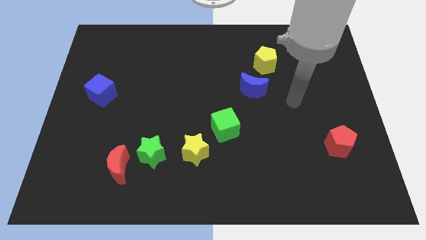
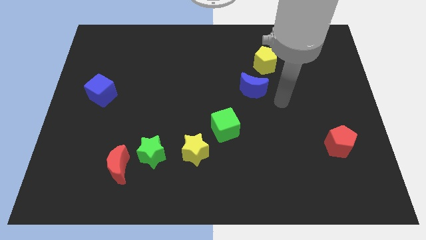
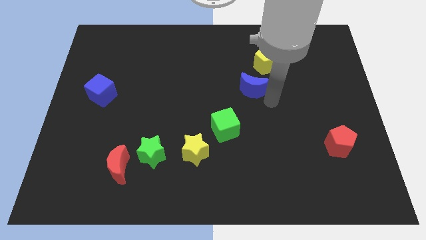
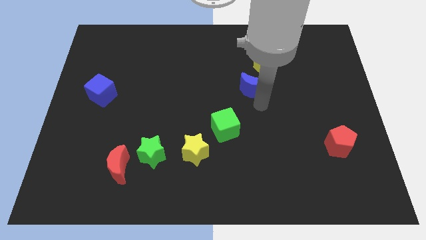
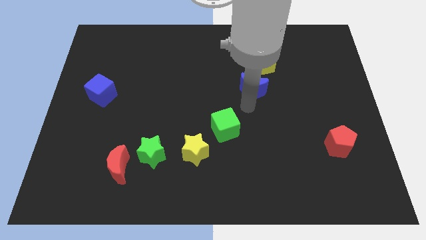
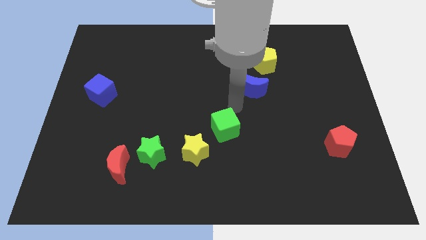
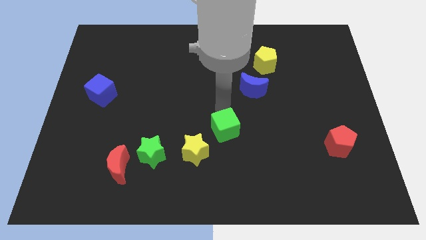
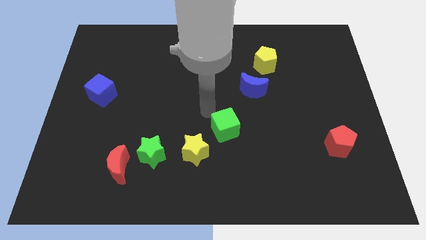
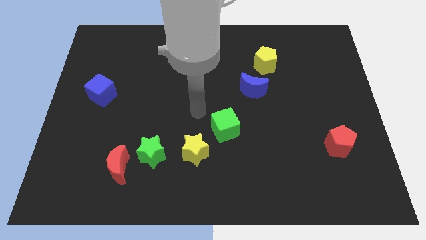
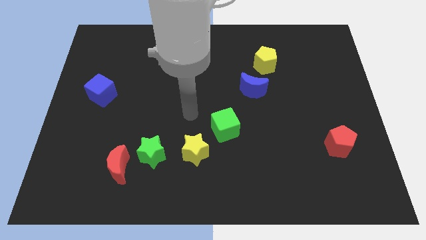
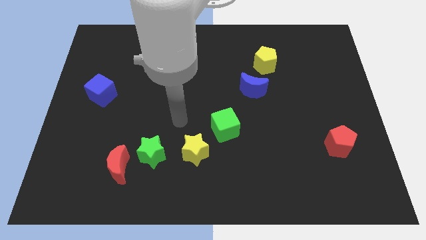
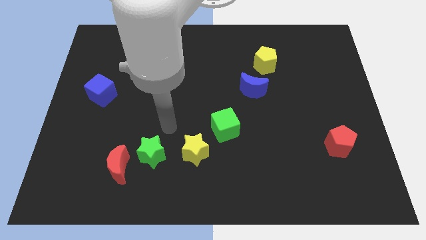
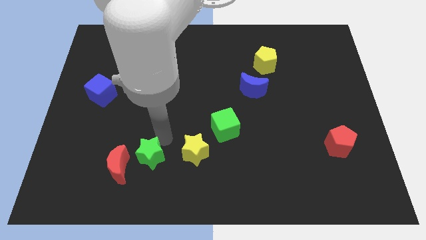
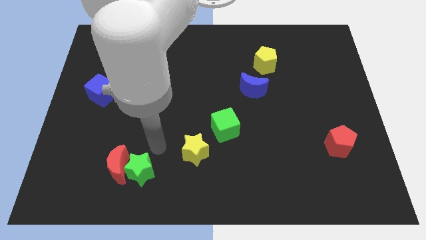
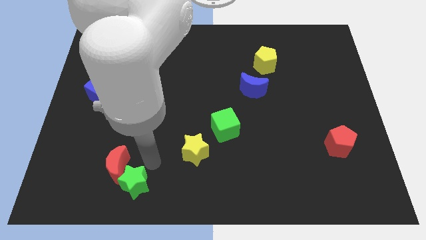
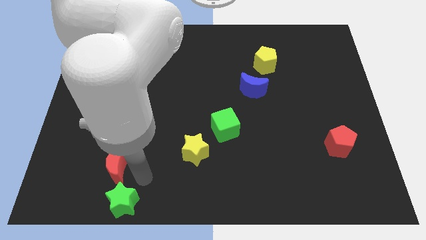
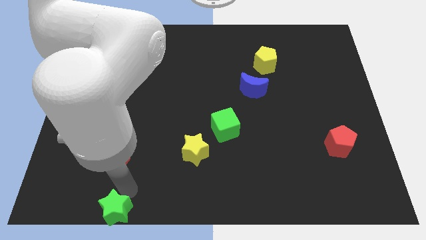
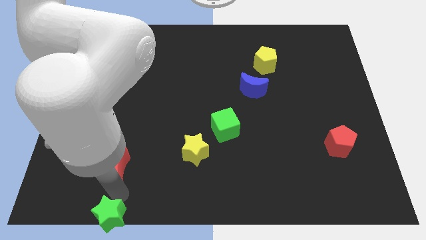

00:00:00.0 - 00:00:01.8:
move the red moon away from the green star

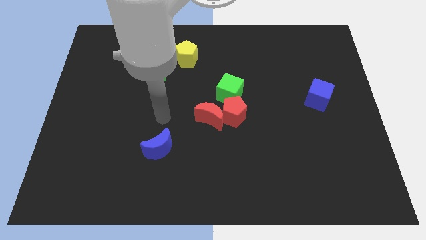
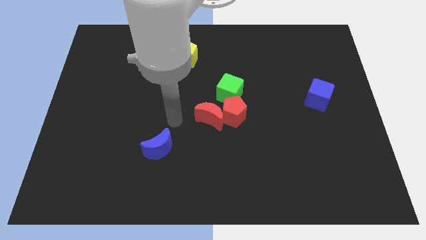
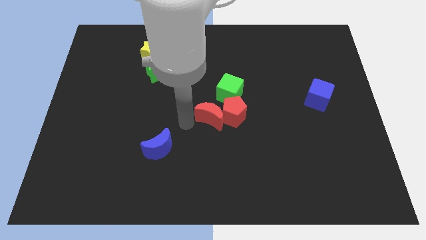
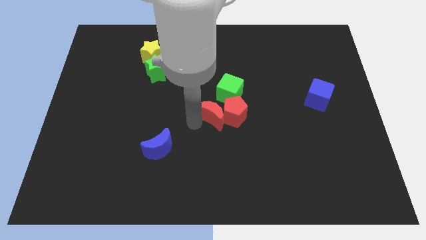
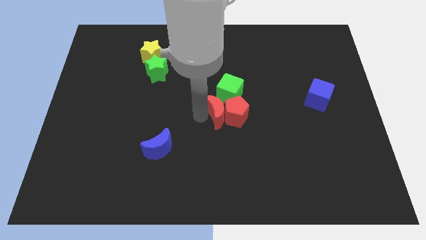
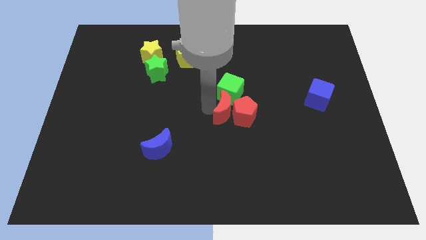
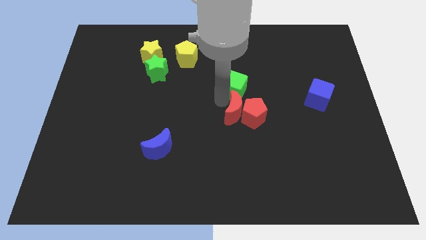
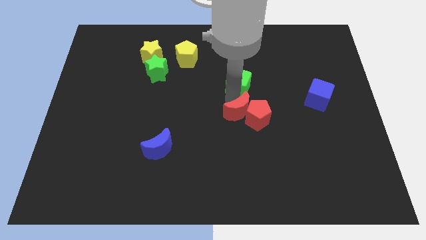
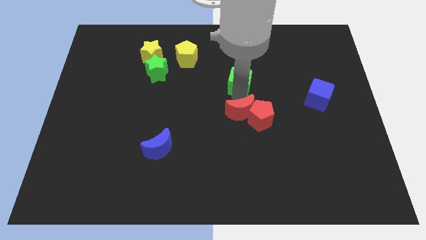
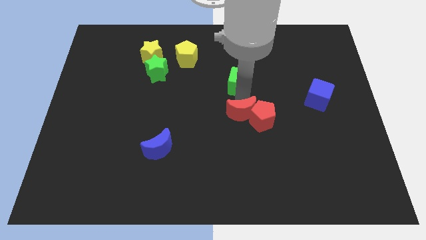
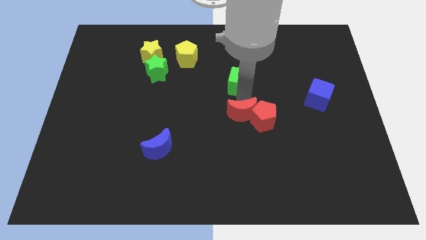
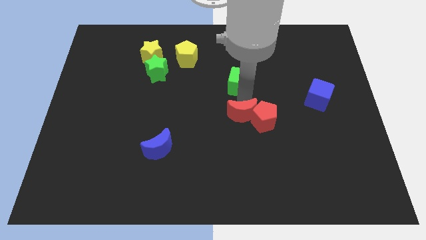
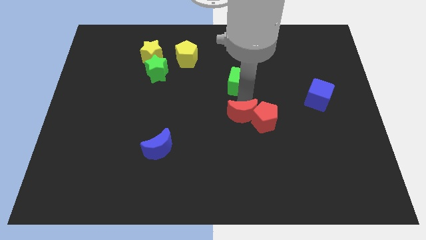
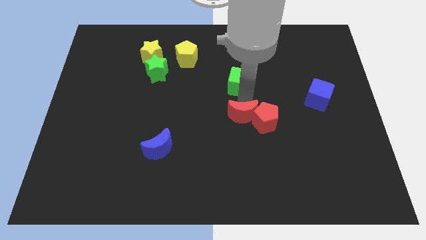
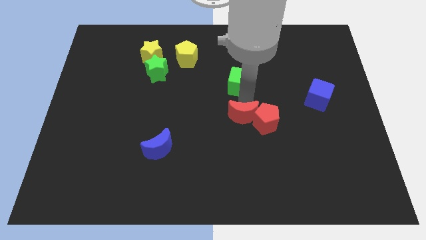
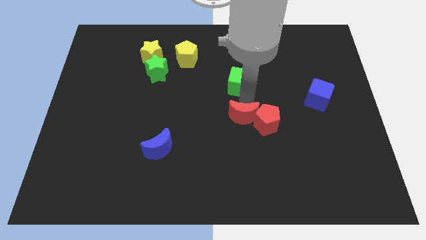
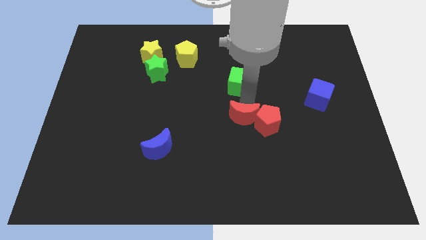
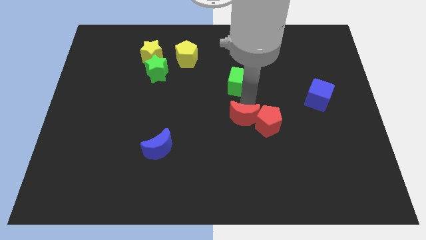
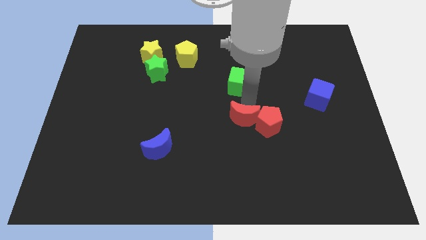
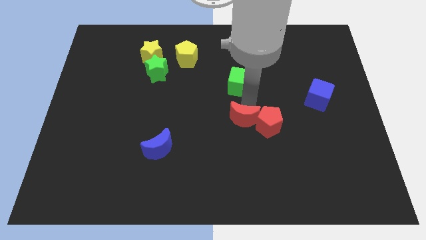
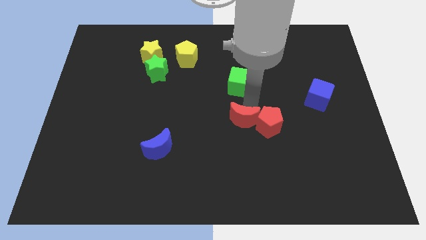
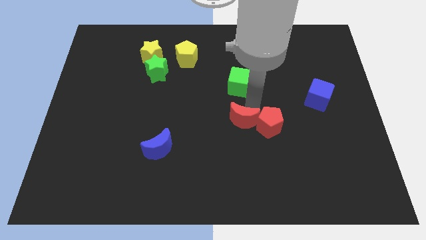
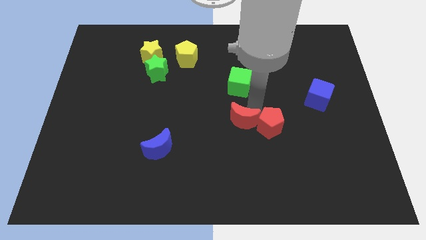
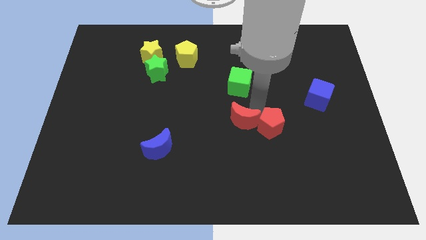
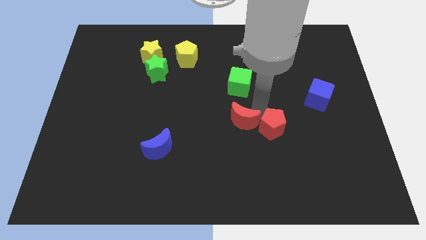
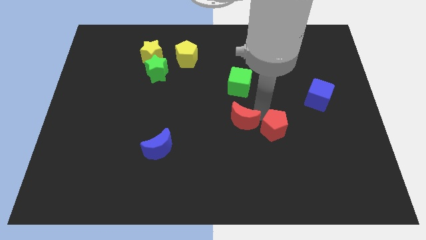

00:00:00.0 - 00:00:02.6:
separate the red pentagon from the red moon and green cube

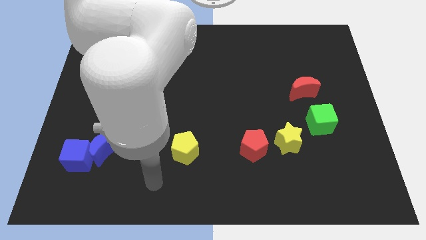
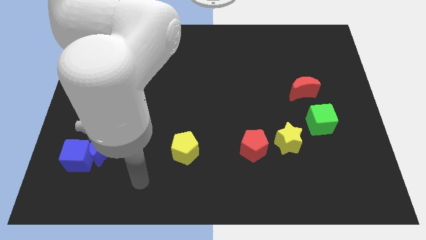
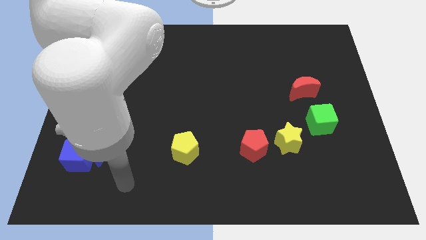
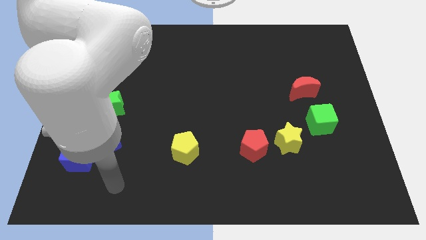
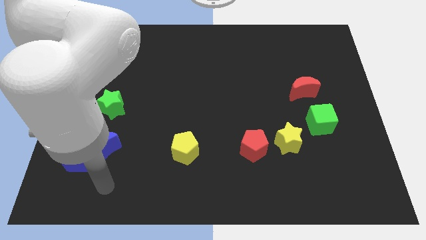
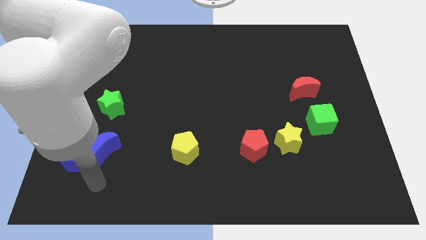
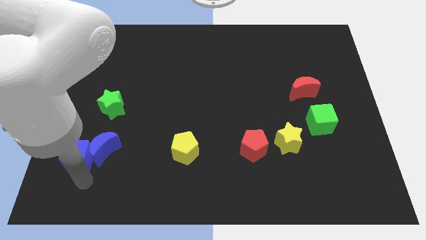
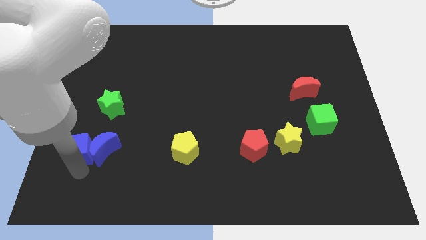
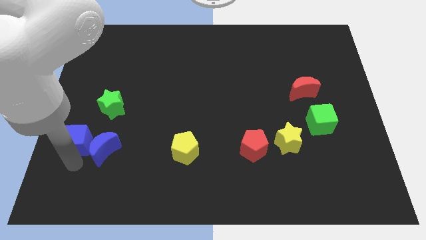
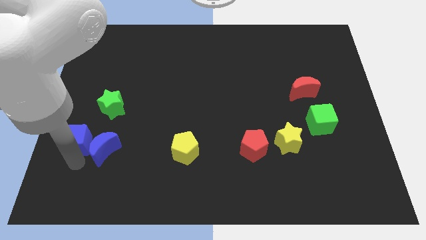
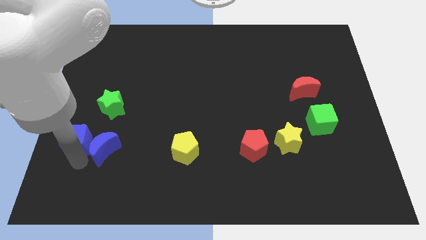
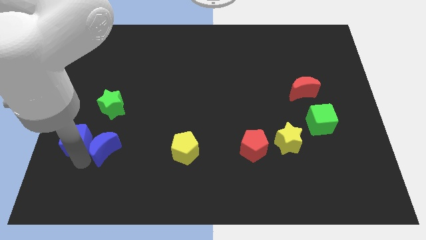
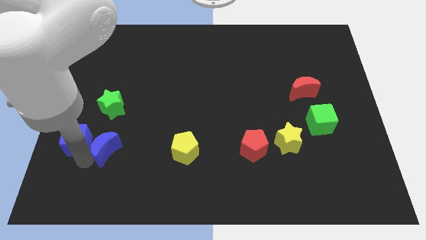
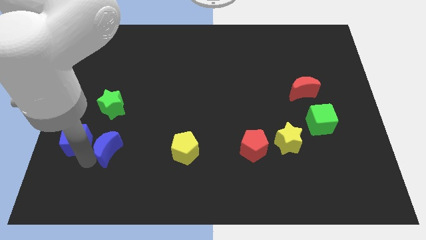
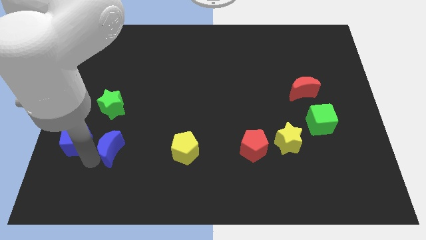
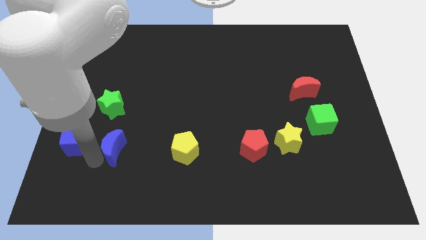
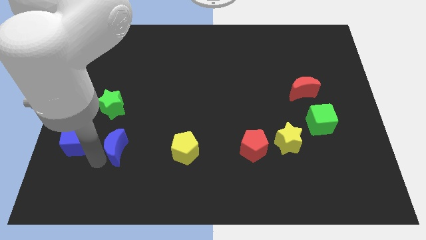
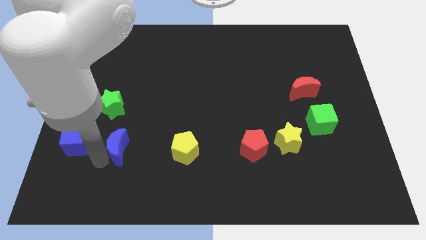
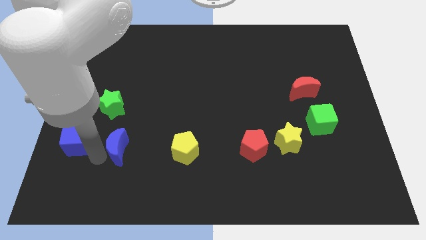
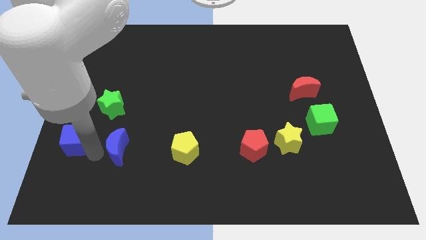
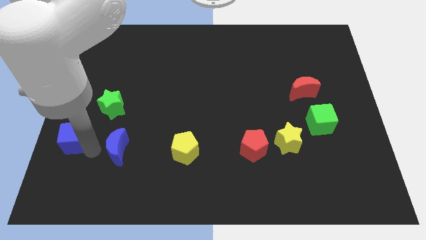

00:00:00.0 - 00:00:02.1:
pull the blue moon apart from the blue cube

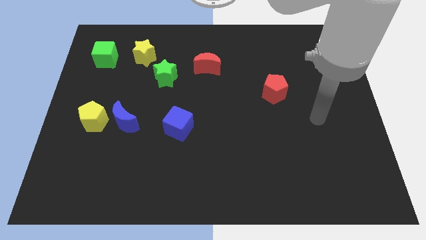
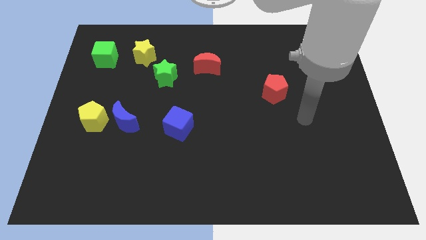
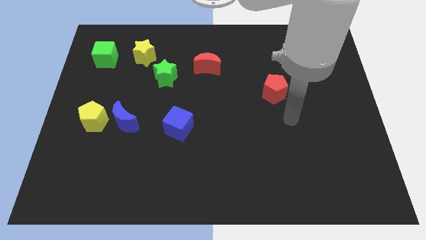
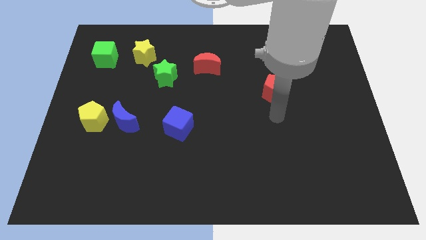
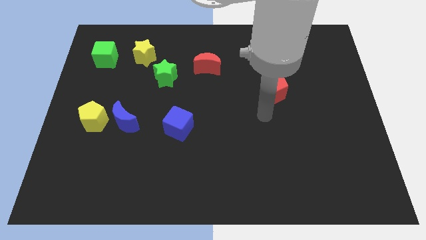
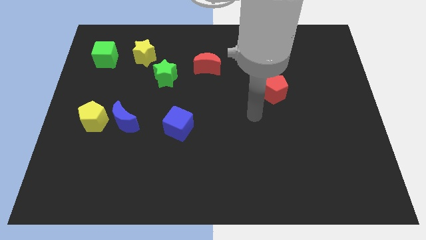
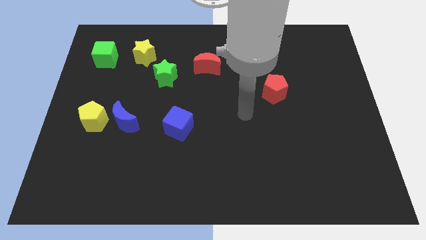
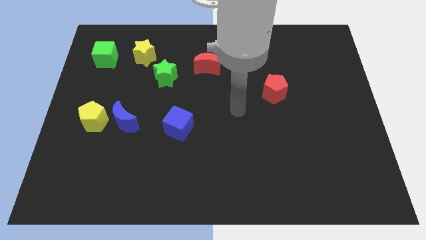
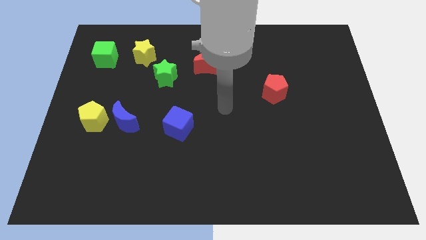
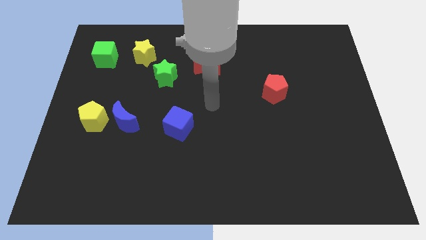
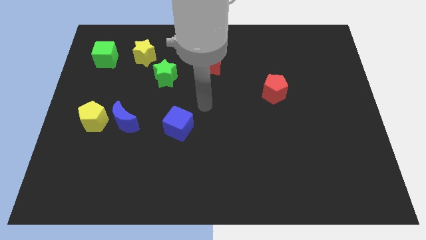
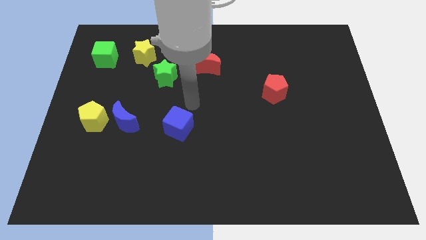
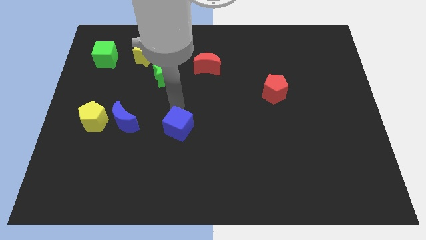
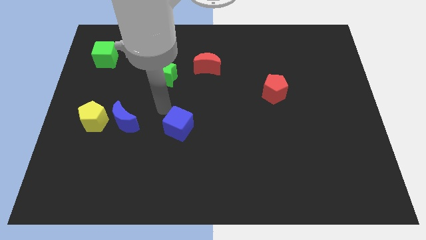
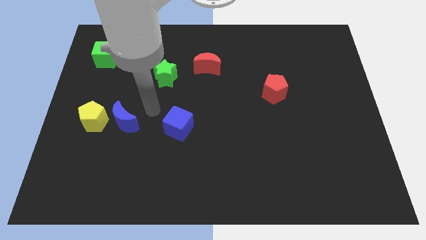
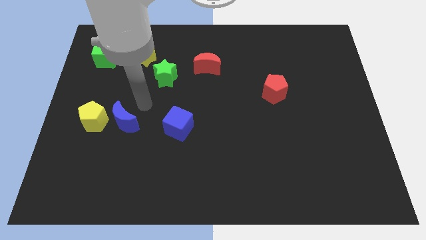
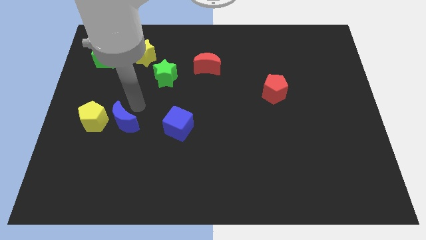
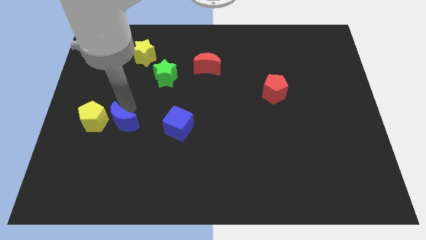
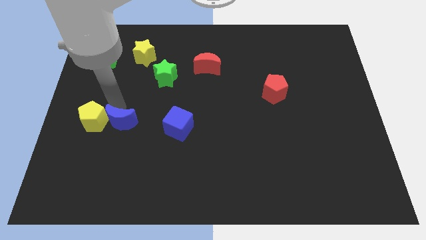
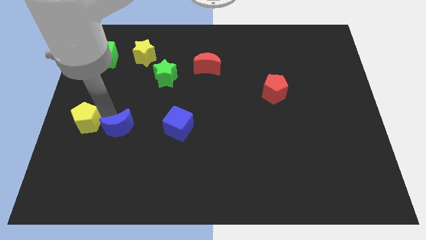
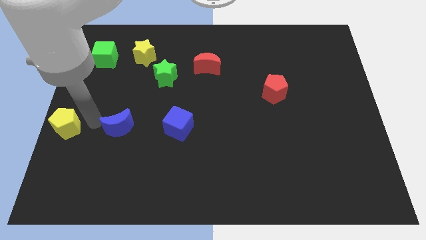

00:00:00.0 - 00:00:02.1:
pull the blue moon apart from the yellow pentagon

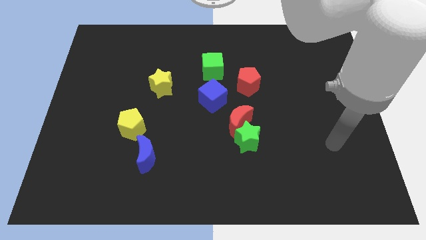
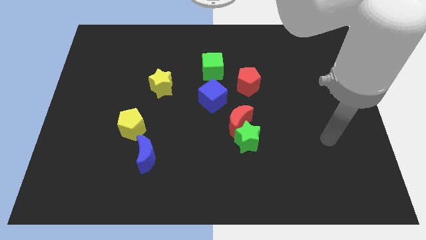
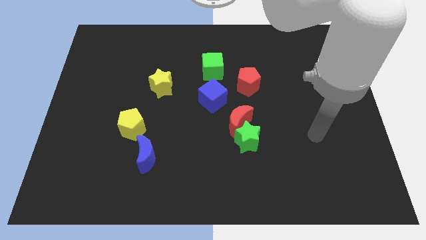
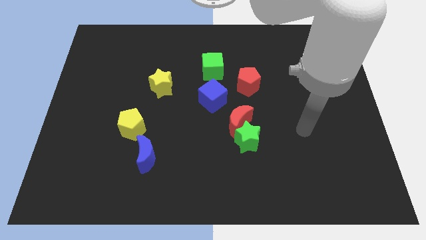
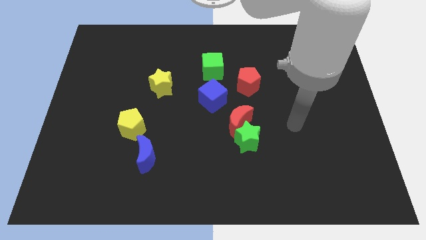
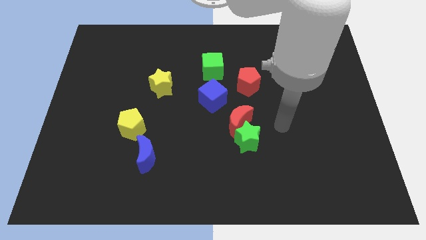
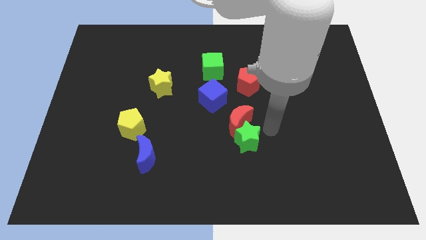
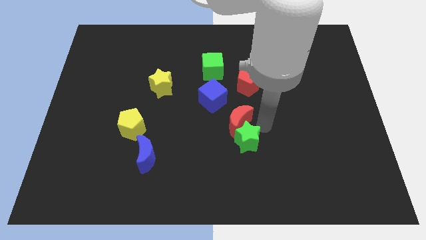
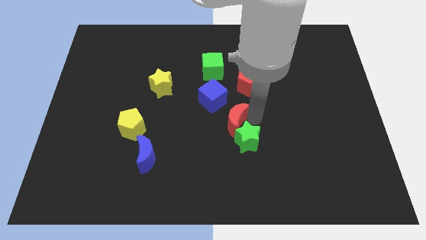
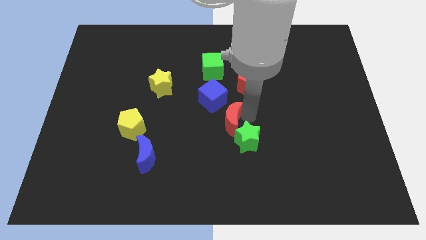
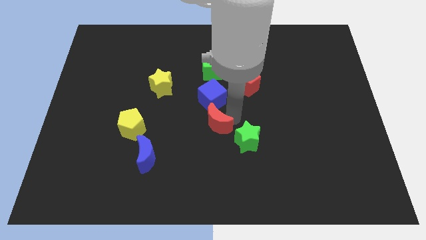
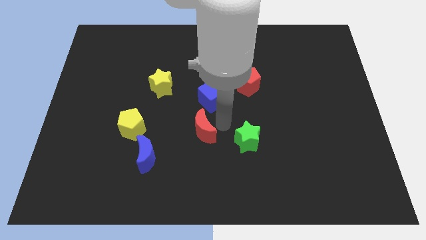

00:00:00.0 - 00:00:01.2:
pull the green star apart from the red moon
